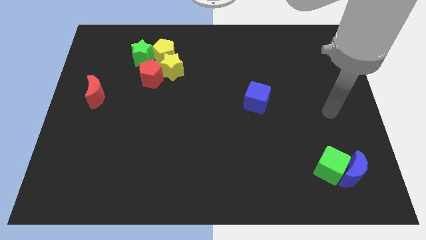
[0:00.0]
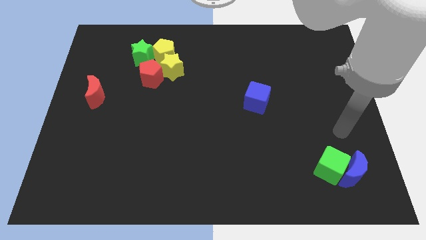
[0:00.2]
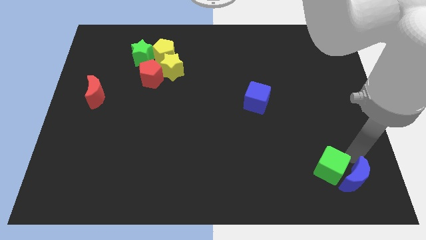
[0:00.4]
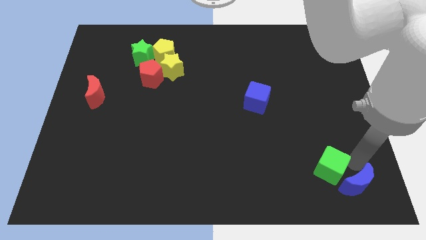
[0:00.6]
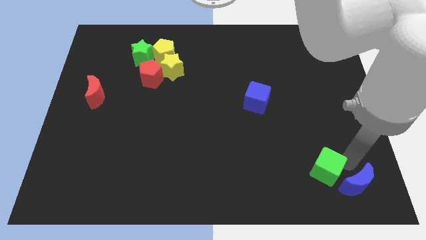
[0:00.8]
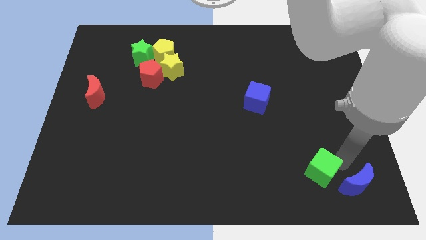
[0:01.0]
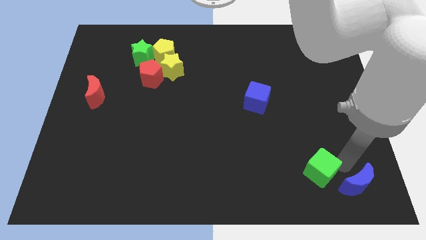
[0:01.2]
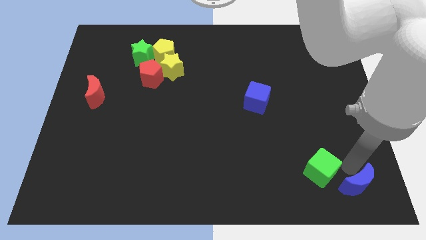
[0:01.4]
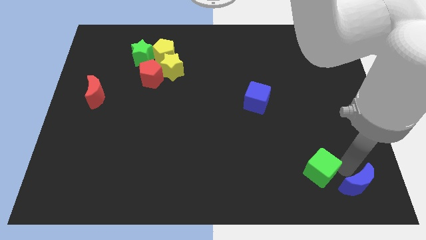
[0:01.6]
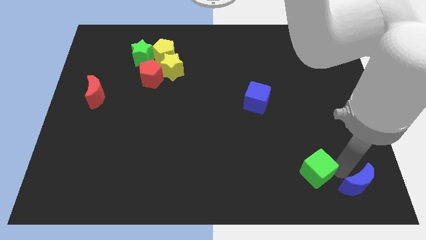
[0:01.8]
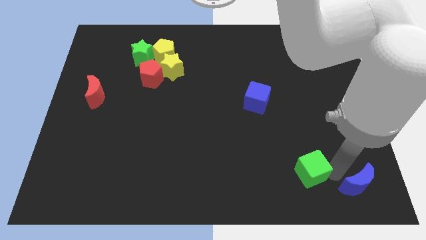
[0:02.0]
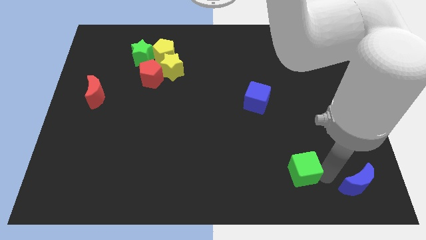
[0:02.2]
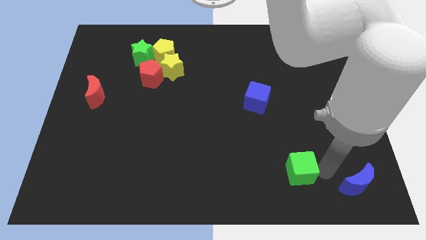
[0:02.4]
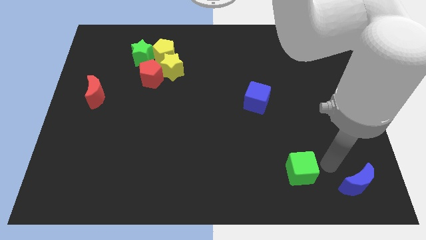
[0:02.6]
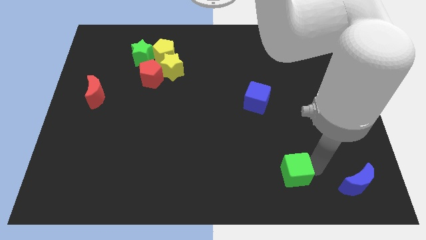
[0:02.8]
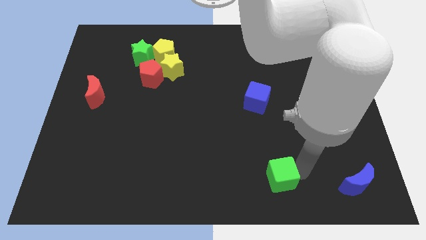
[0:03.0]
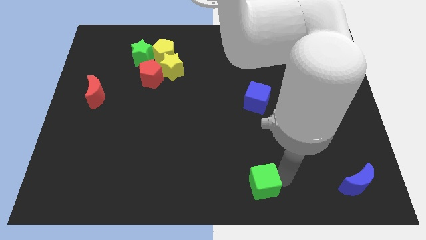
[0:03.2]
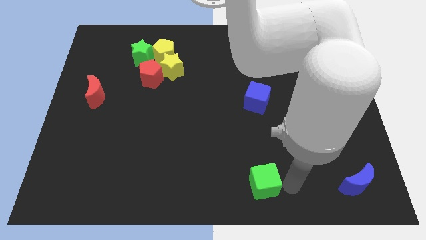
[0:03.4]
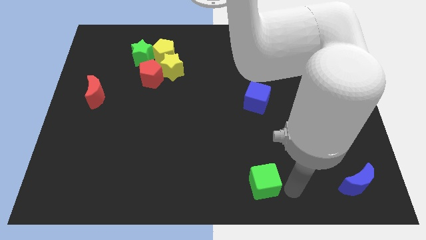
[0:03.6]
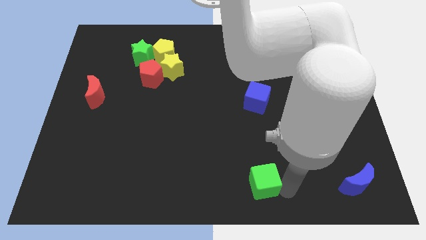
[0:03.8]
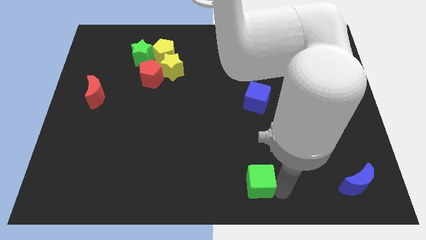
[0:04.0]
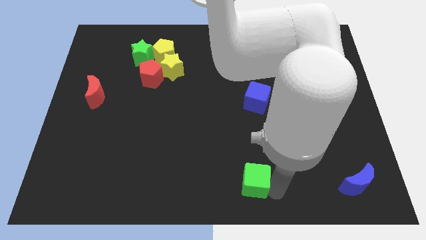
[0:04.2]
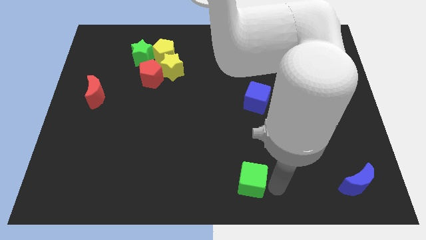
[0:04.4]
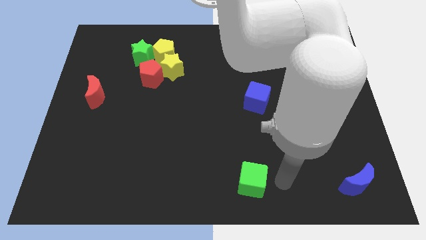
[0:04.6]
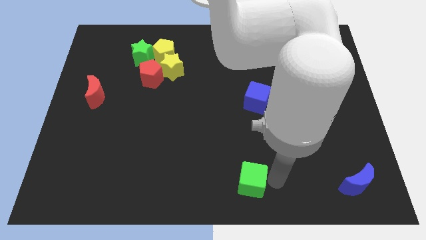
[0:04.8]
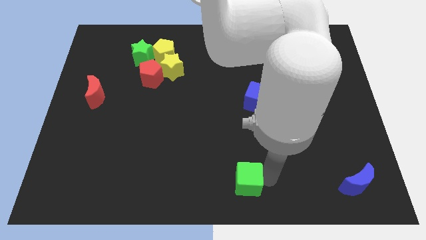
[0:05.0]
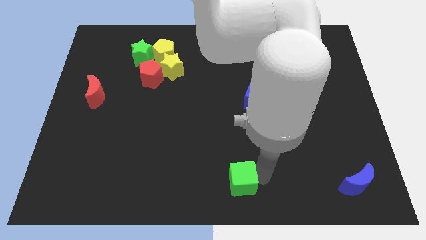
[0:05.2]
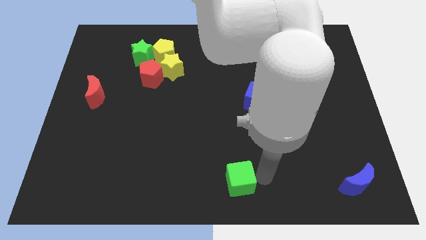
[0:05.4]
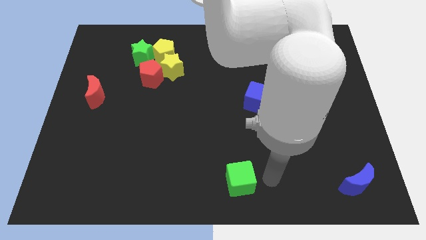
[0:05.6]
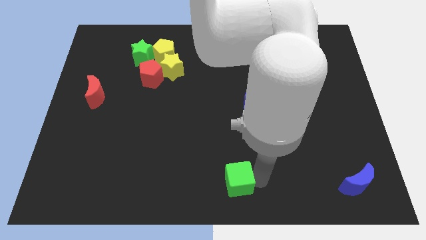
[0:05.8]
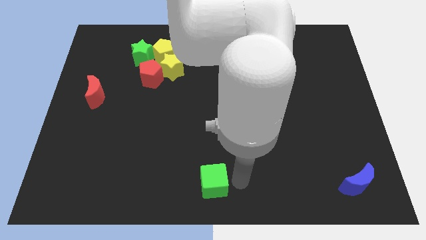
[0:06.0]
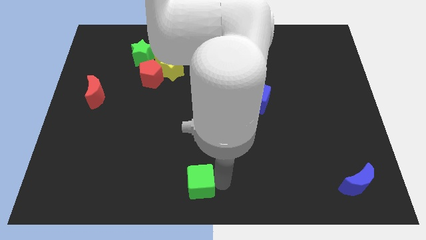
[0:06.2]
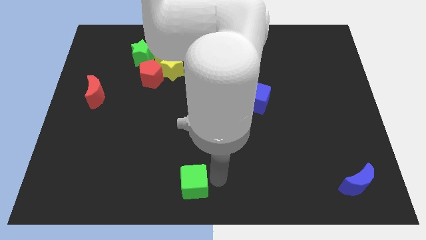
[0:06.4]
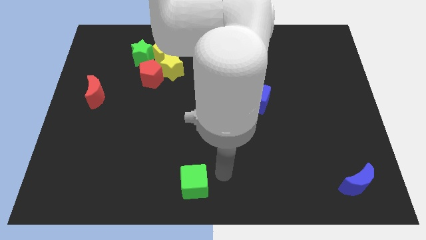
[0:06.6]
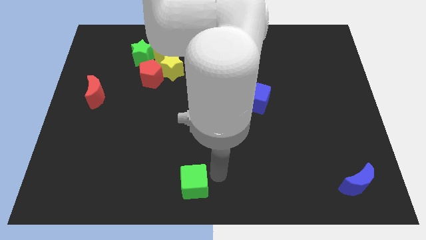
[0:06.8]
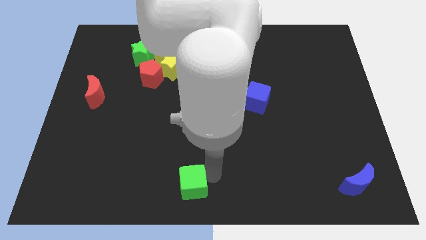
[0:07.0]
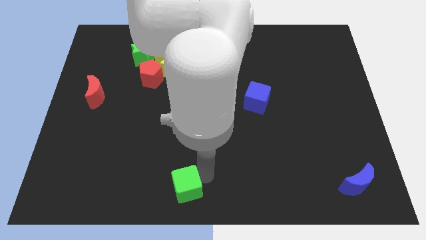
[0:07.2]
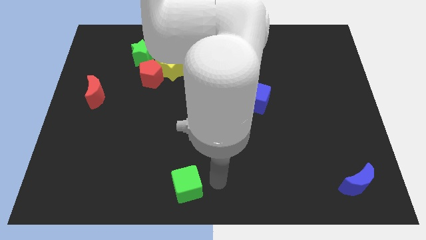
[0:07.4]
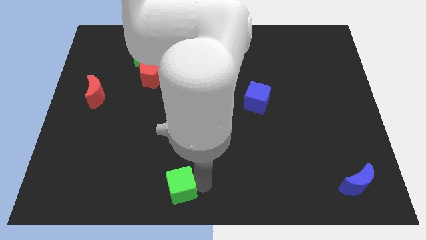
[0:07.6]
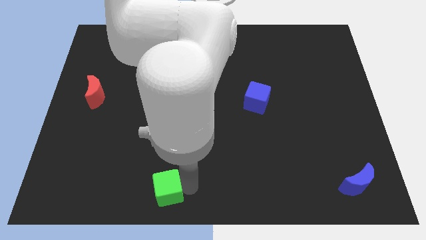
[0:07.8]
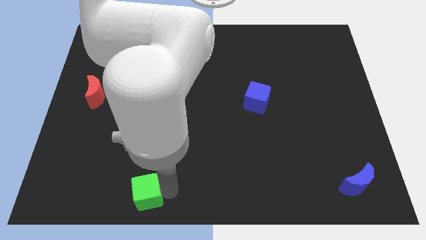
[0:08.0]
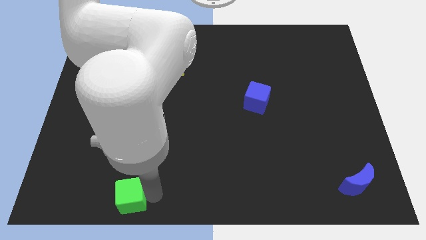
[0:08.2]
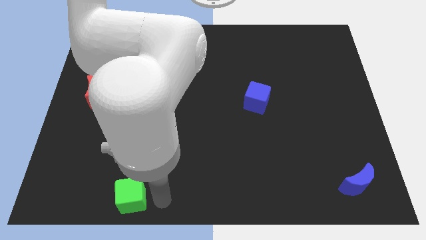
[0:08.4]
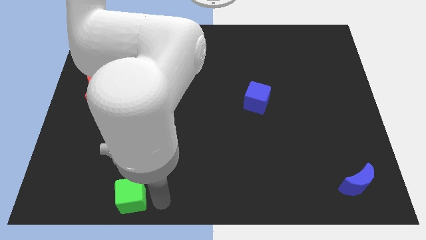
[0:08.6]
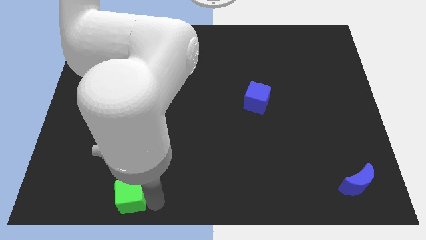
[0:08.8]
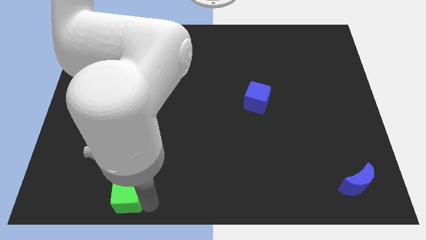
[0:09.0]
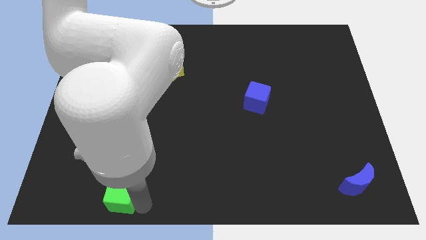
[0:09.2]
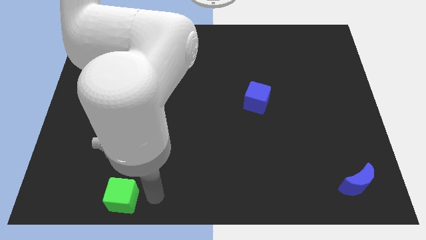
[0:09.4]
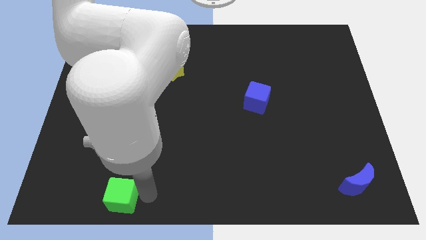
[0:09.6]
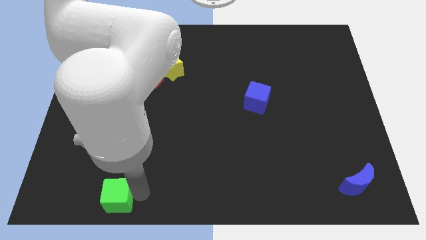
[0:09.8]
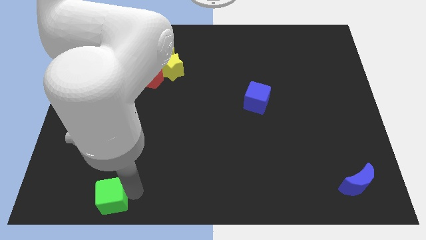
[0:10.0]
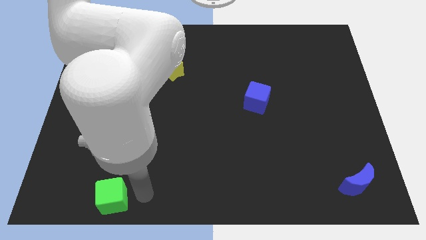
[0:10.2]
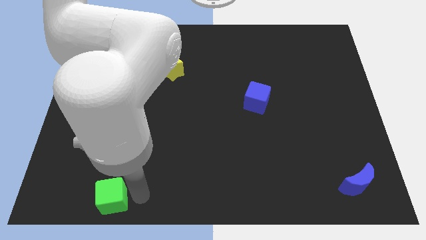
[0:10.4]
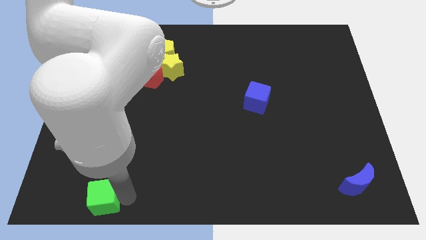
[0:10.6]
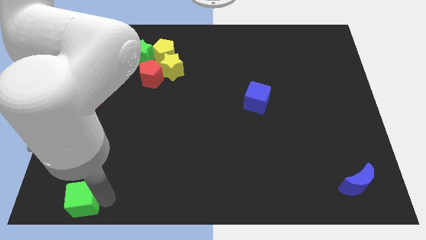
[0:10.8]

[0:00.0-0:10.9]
push the green cube to the lower left corner
